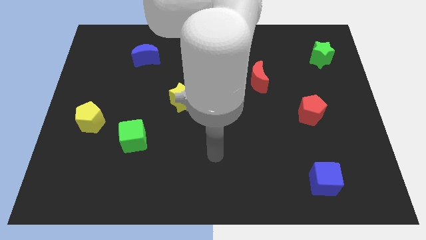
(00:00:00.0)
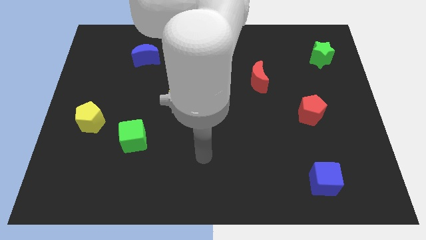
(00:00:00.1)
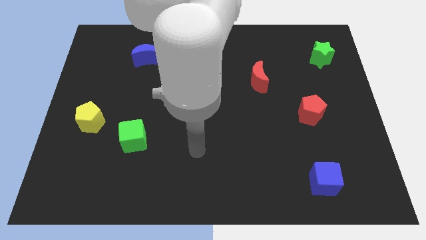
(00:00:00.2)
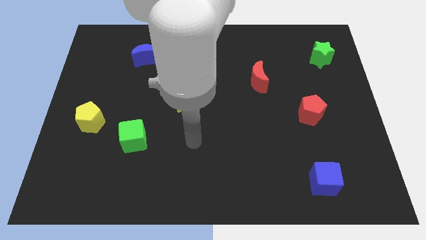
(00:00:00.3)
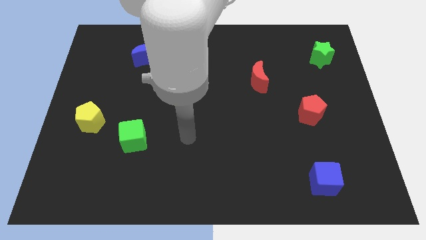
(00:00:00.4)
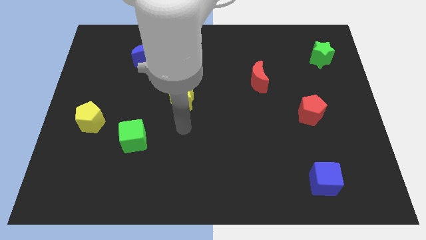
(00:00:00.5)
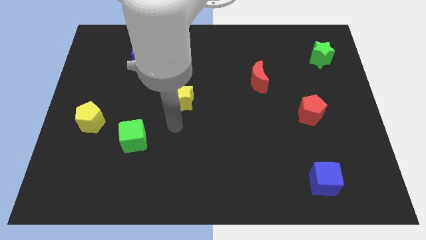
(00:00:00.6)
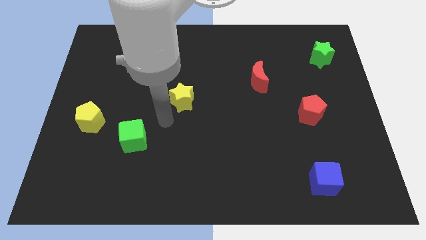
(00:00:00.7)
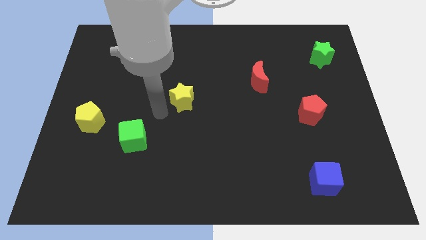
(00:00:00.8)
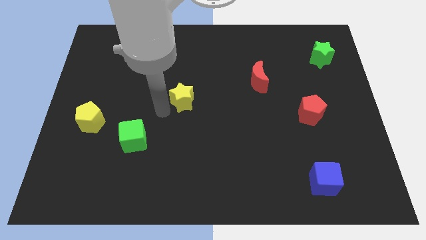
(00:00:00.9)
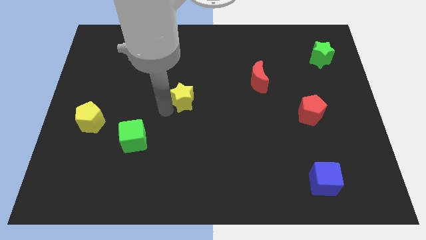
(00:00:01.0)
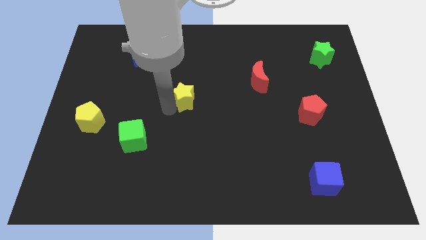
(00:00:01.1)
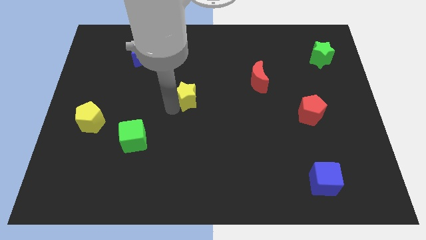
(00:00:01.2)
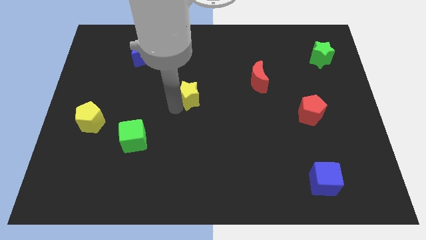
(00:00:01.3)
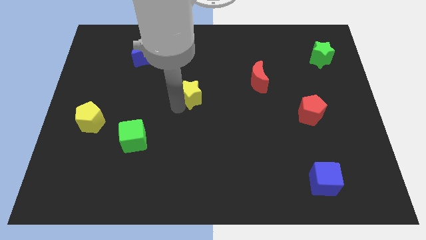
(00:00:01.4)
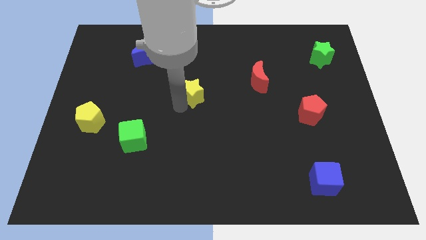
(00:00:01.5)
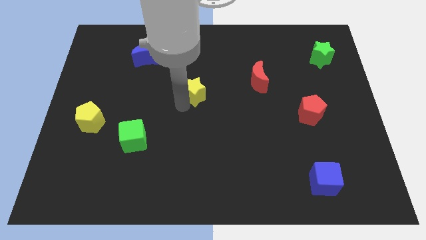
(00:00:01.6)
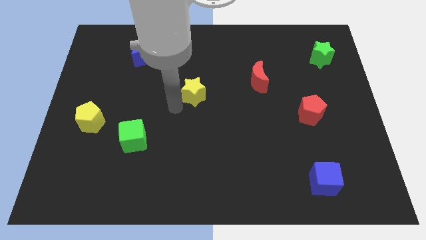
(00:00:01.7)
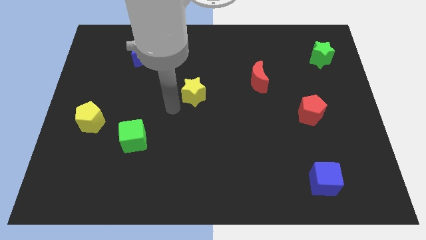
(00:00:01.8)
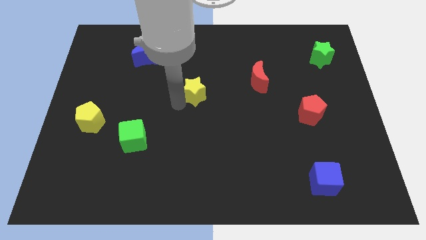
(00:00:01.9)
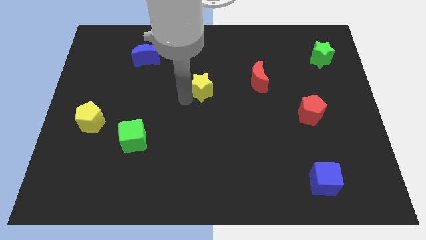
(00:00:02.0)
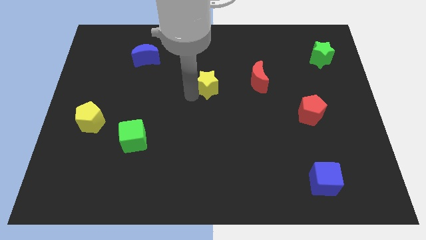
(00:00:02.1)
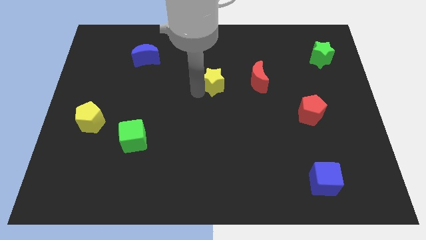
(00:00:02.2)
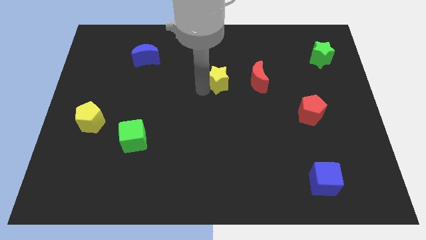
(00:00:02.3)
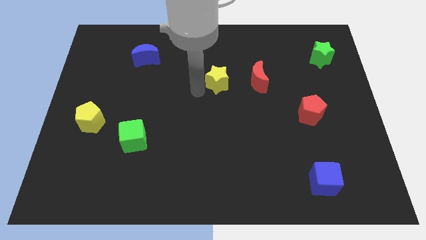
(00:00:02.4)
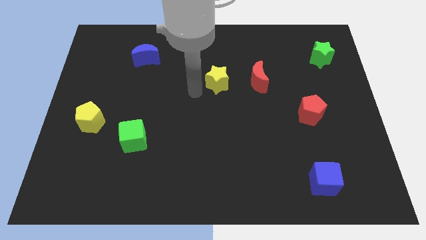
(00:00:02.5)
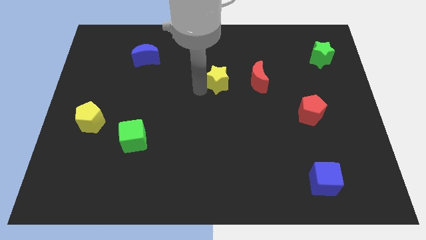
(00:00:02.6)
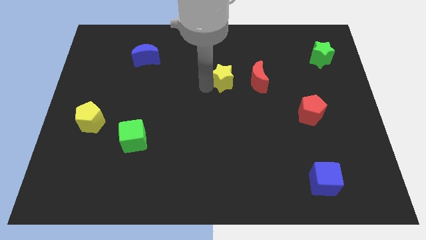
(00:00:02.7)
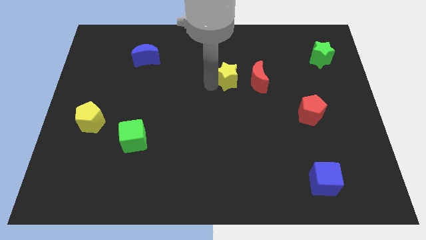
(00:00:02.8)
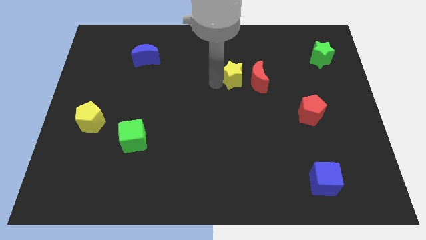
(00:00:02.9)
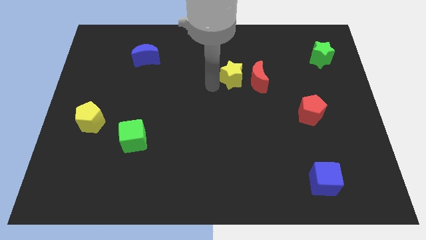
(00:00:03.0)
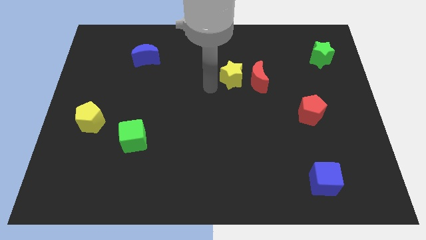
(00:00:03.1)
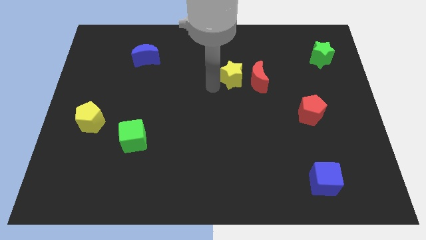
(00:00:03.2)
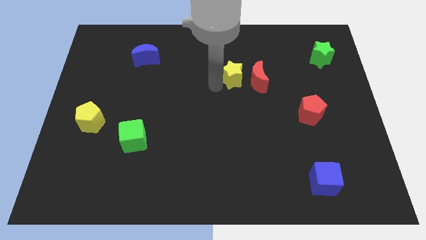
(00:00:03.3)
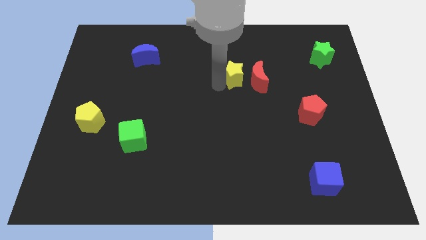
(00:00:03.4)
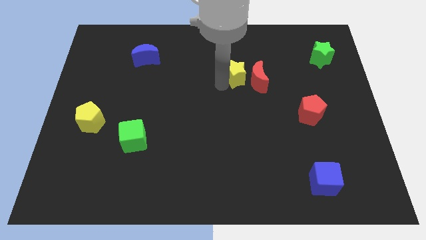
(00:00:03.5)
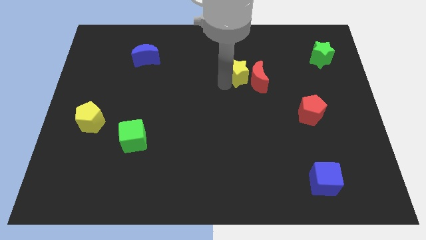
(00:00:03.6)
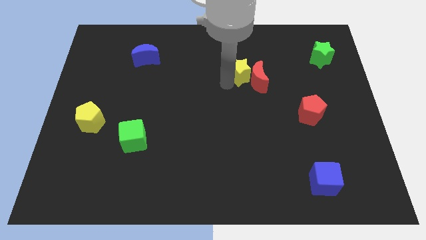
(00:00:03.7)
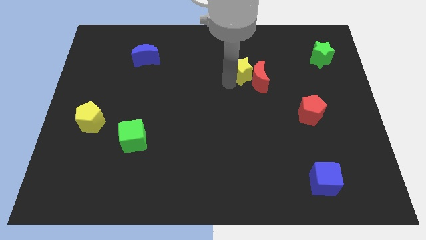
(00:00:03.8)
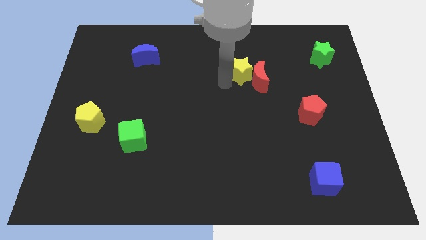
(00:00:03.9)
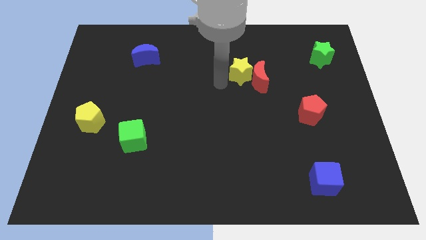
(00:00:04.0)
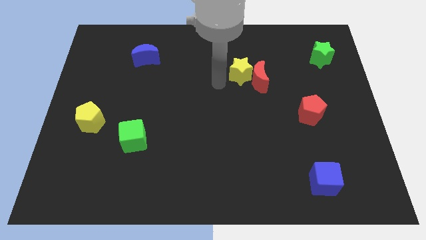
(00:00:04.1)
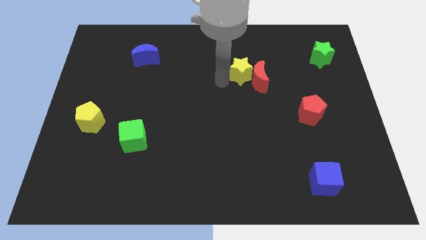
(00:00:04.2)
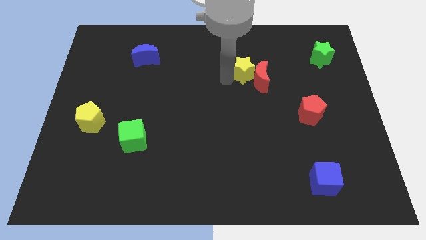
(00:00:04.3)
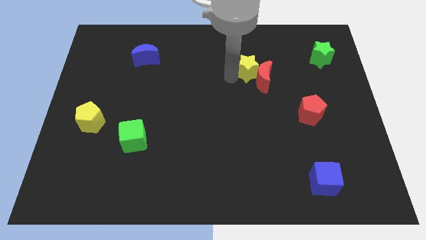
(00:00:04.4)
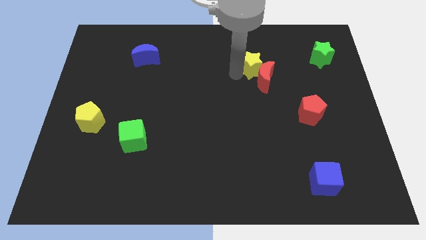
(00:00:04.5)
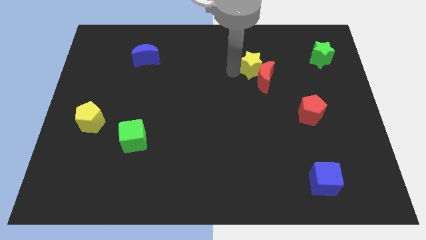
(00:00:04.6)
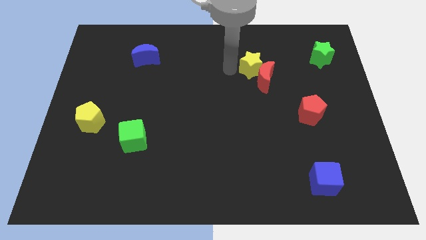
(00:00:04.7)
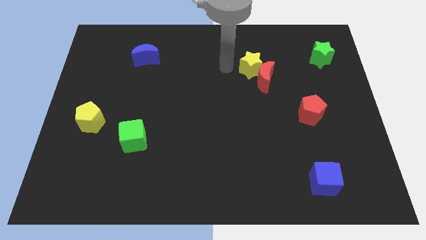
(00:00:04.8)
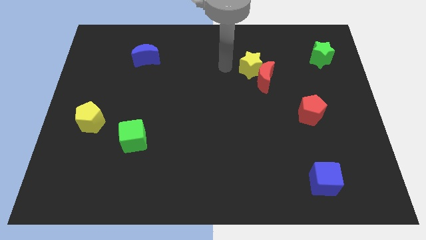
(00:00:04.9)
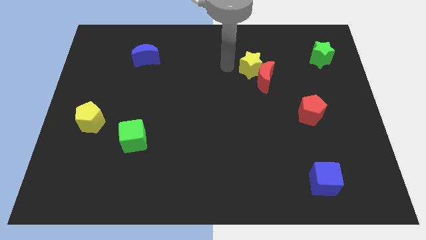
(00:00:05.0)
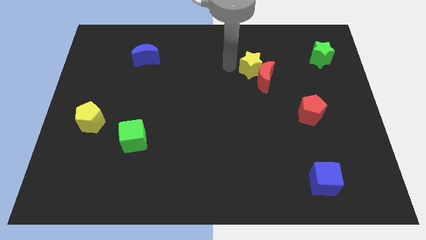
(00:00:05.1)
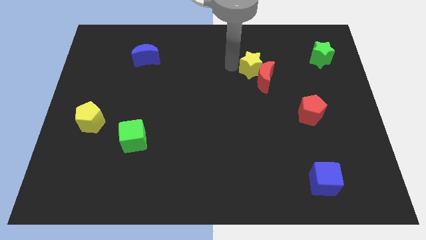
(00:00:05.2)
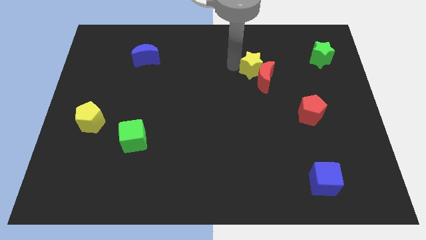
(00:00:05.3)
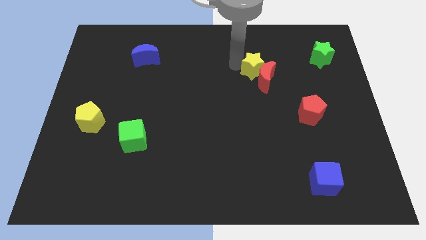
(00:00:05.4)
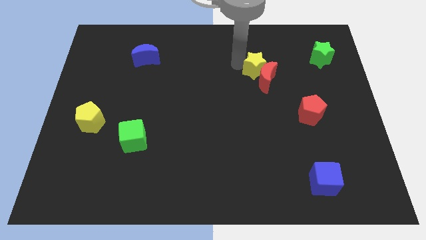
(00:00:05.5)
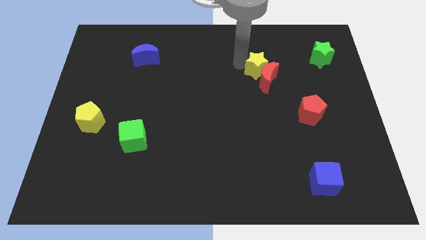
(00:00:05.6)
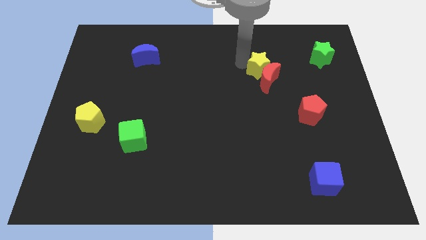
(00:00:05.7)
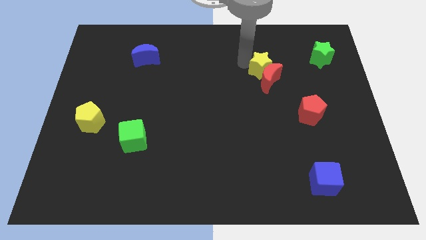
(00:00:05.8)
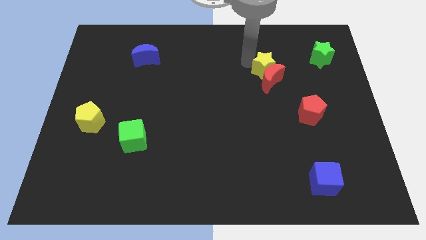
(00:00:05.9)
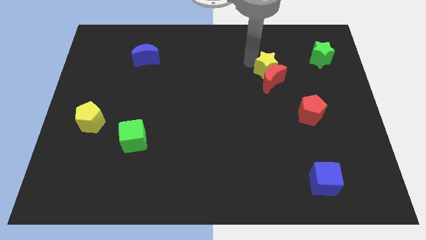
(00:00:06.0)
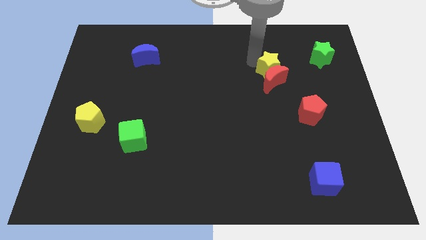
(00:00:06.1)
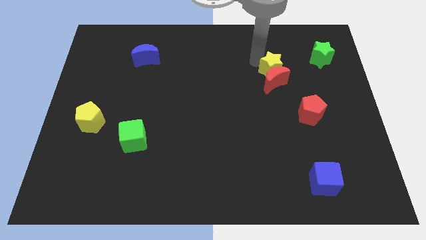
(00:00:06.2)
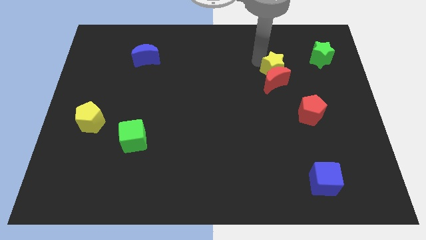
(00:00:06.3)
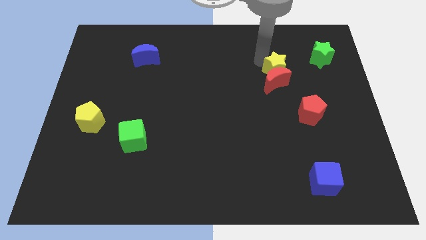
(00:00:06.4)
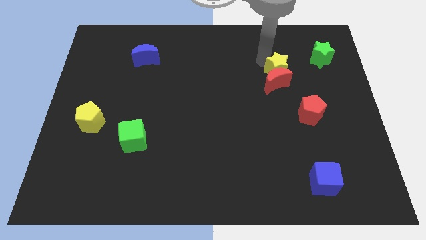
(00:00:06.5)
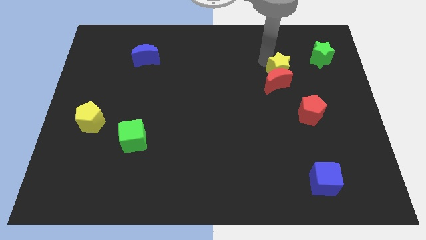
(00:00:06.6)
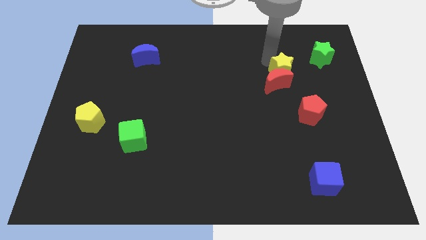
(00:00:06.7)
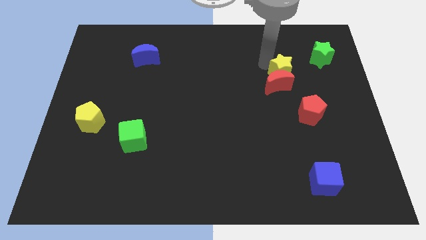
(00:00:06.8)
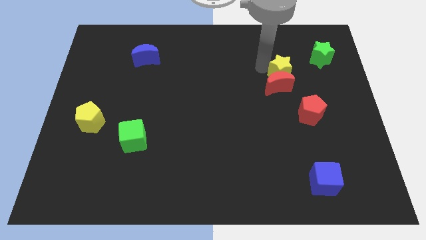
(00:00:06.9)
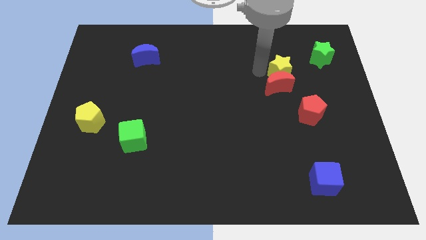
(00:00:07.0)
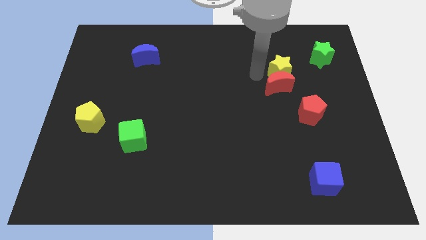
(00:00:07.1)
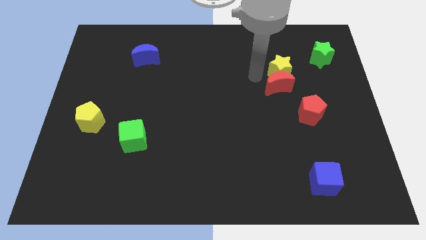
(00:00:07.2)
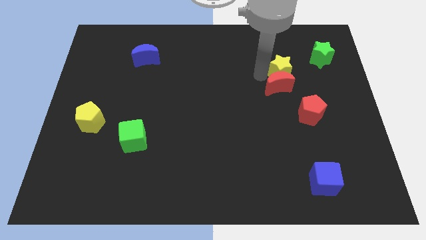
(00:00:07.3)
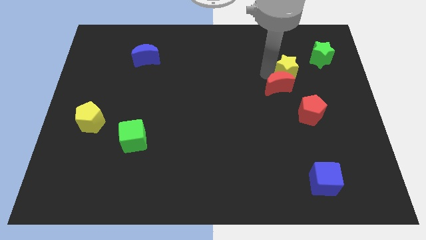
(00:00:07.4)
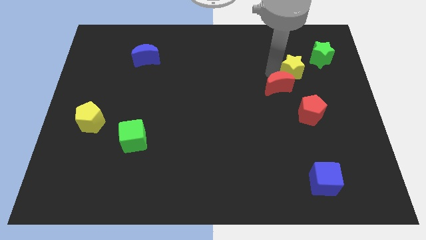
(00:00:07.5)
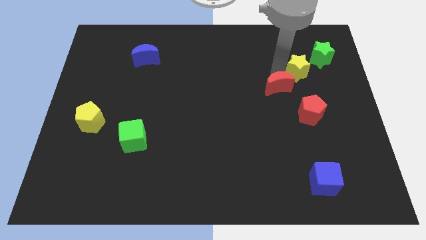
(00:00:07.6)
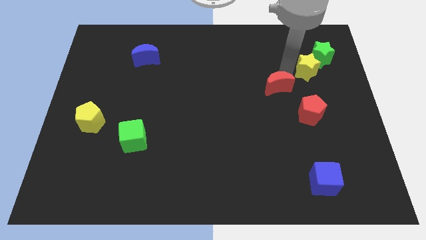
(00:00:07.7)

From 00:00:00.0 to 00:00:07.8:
push the yellow star close to the green star
